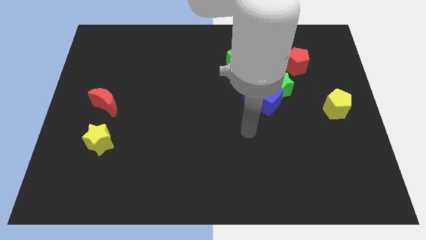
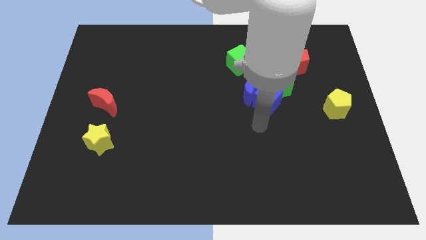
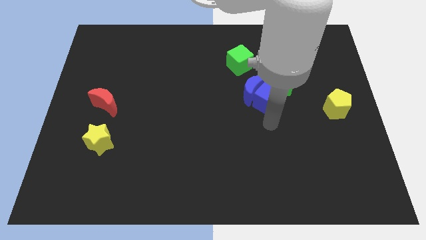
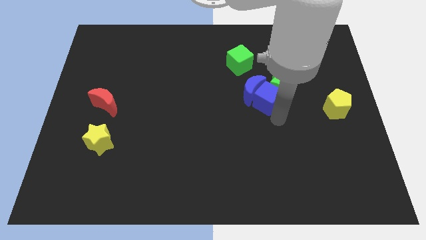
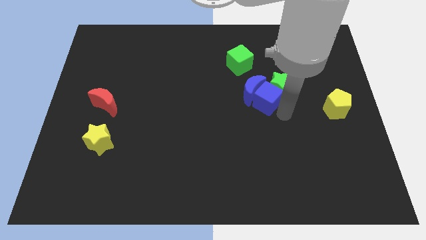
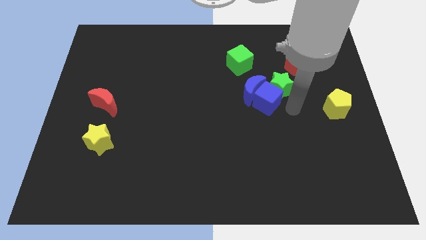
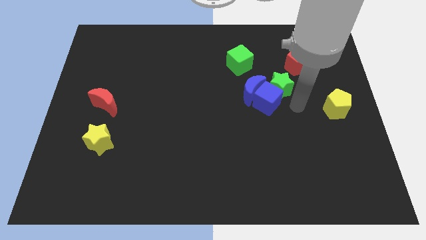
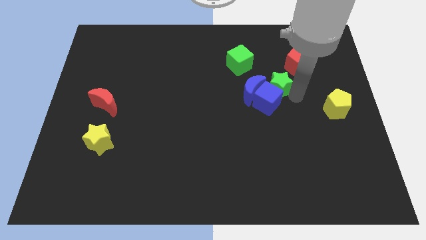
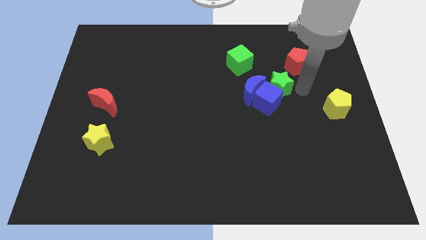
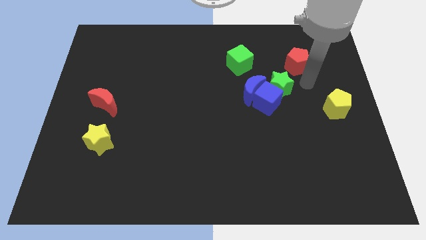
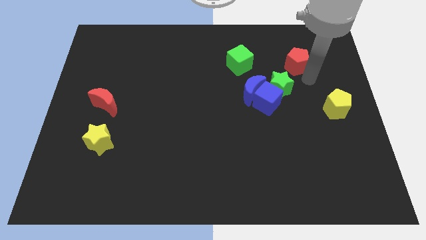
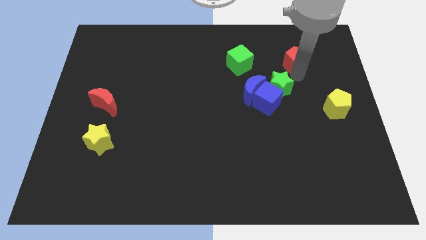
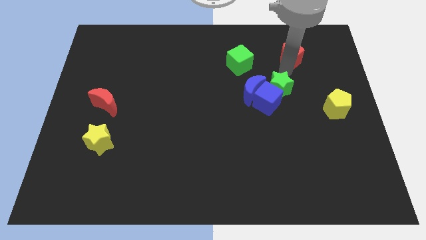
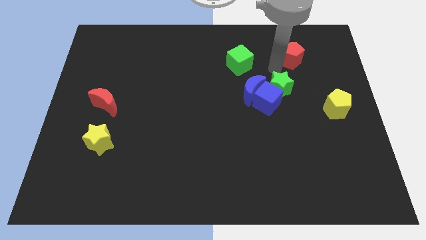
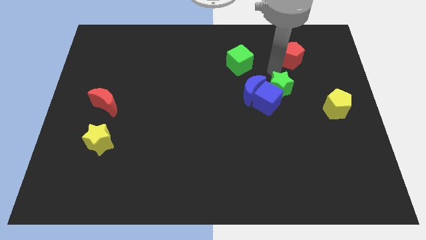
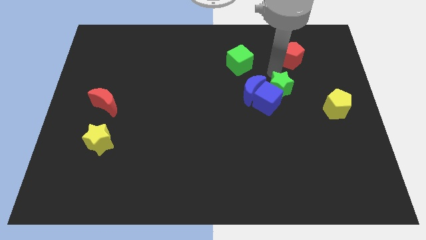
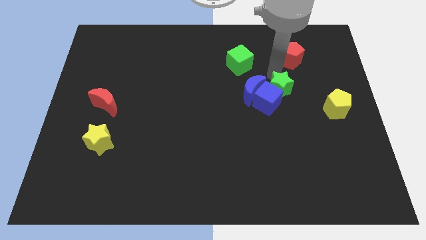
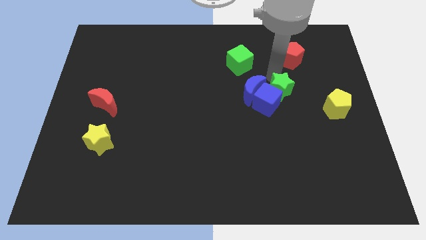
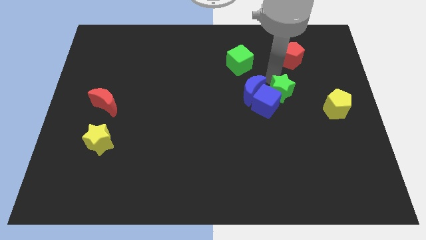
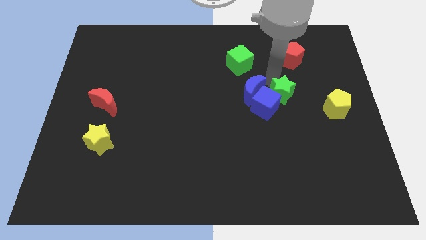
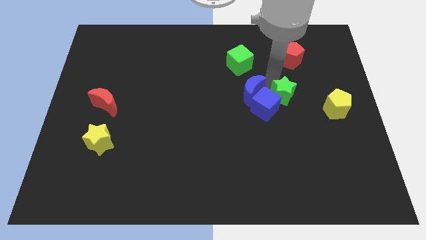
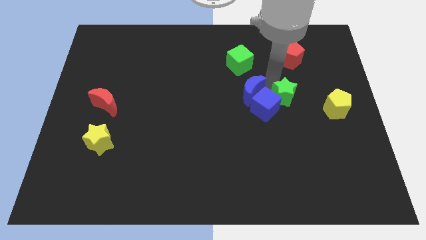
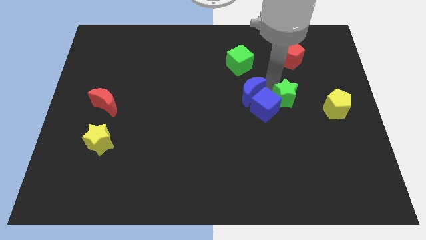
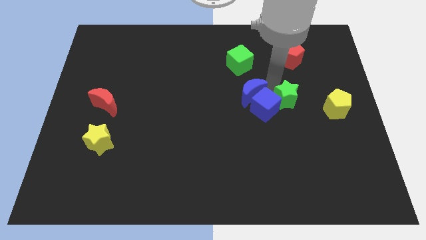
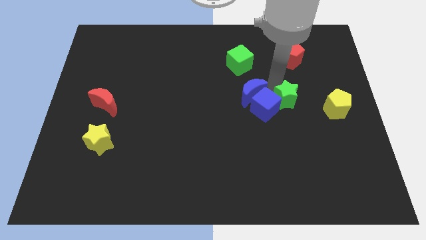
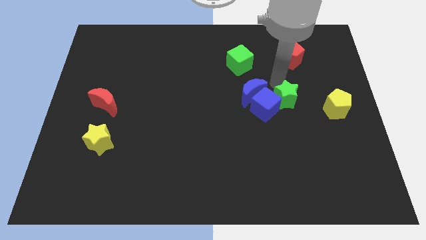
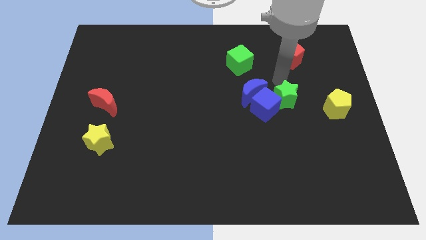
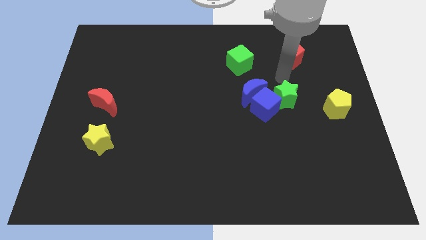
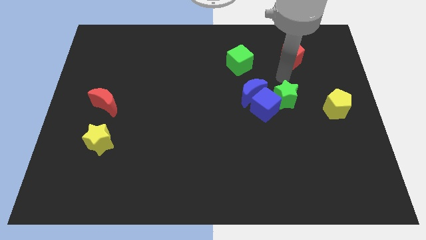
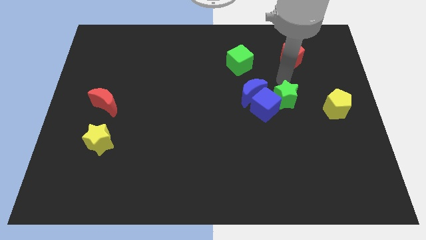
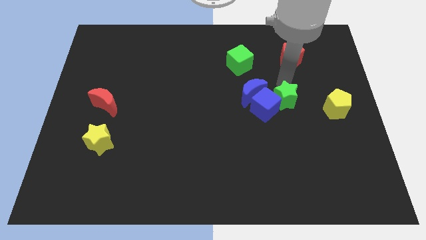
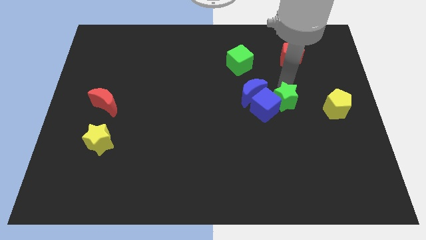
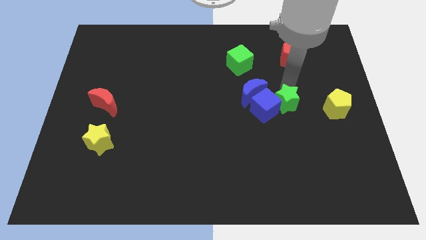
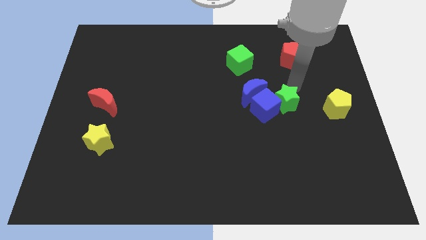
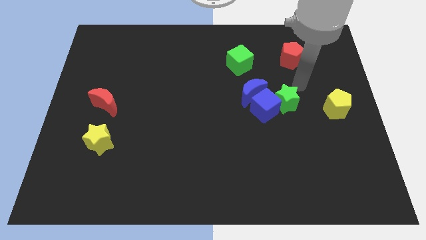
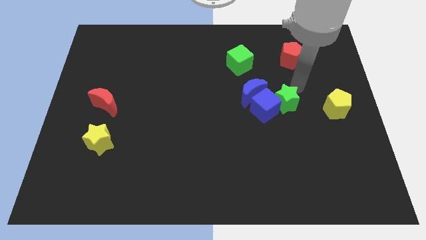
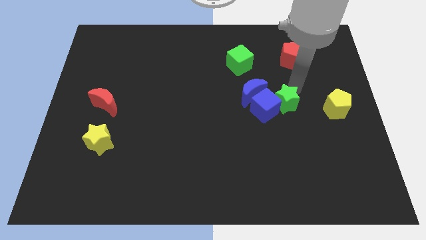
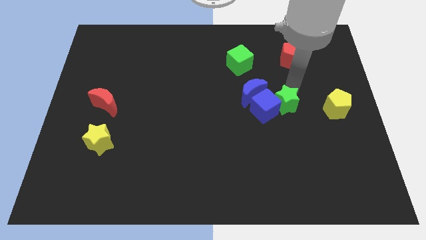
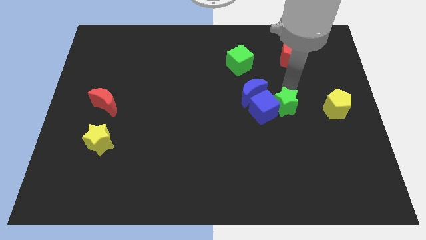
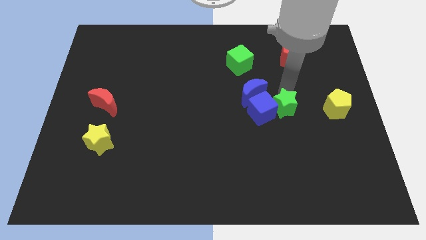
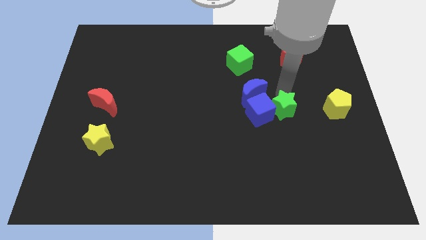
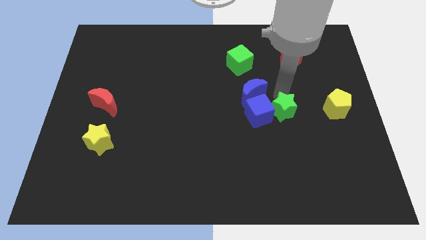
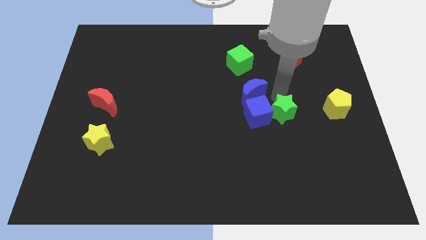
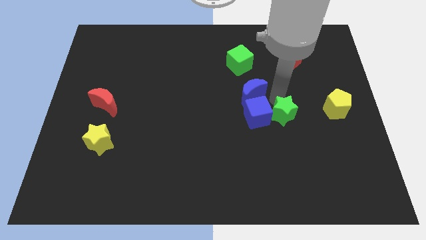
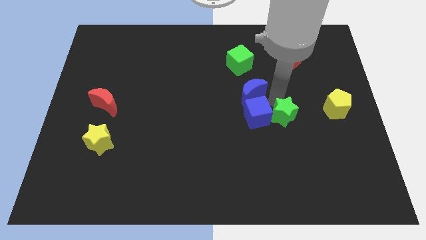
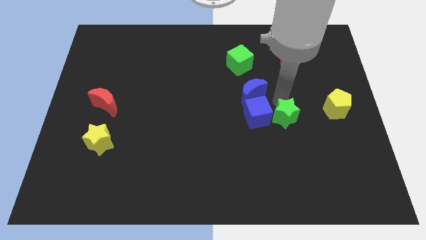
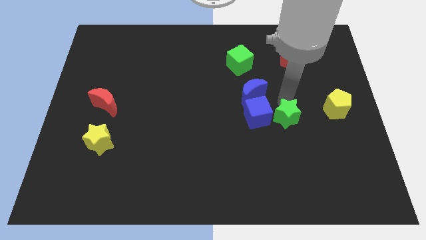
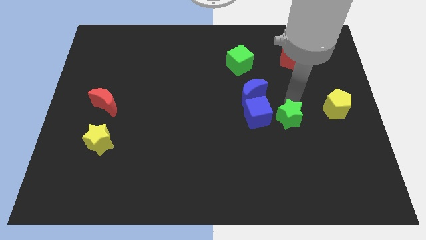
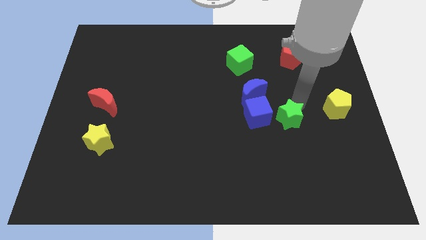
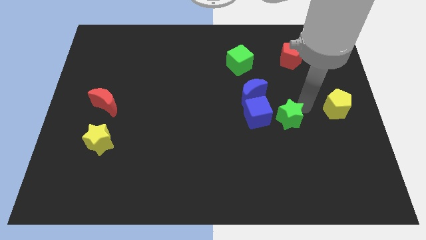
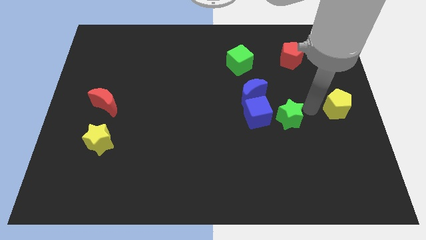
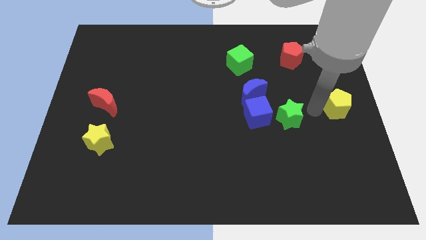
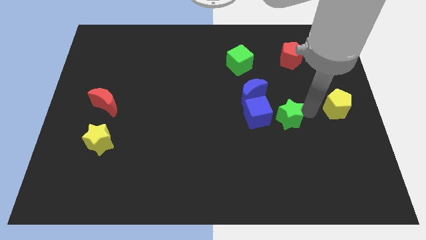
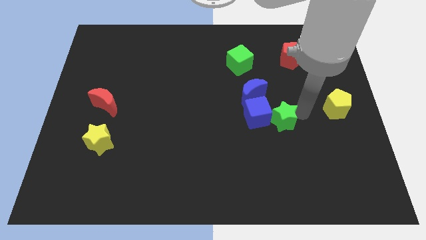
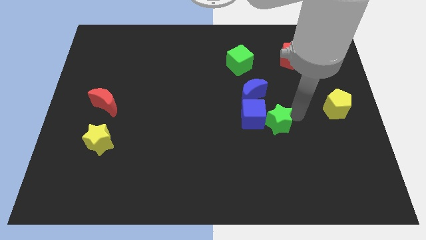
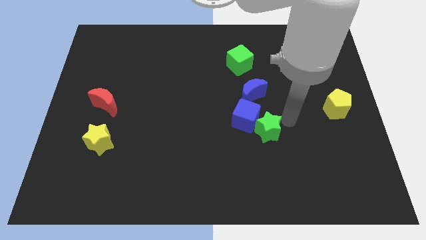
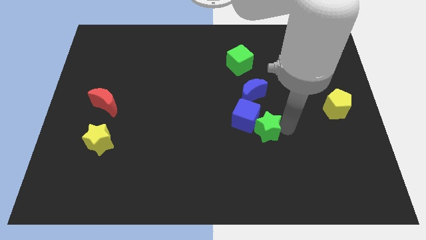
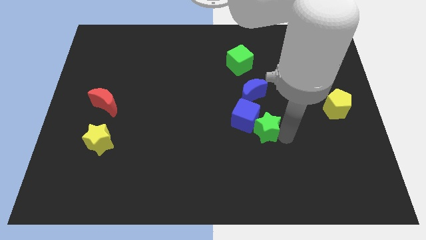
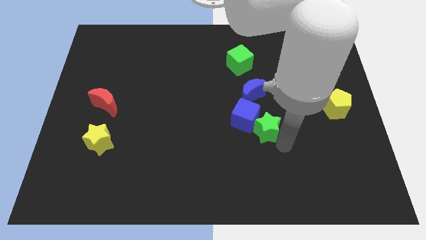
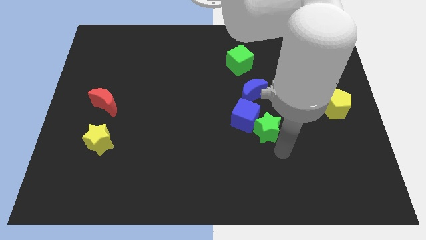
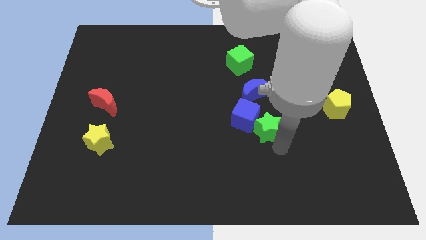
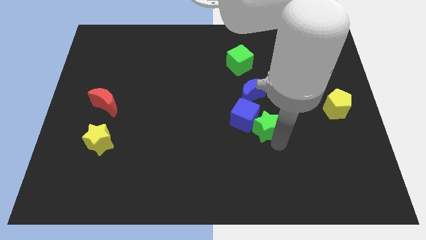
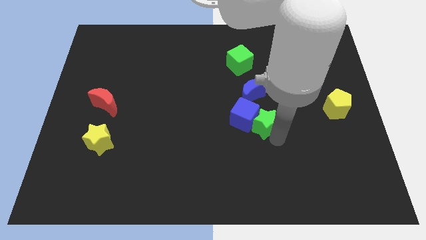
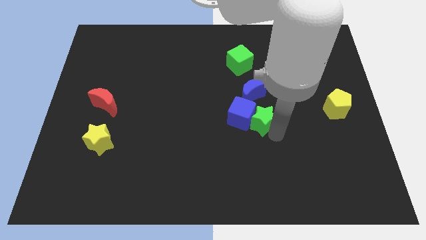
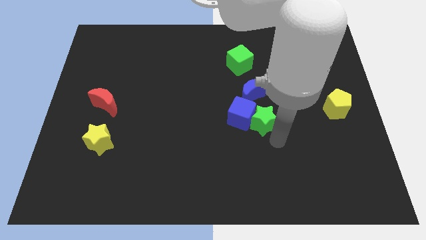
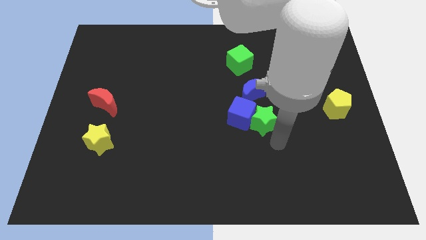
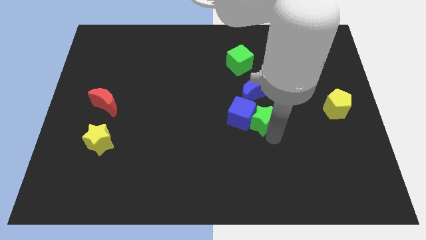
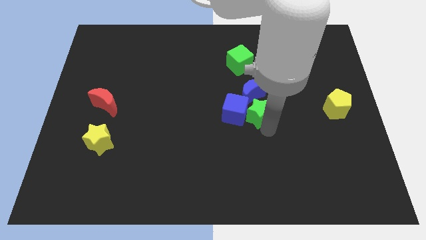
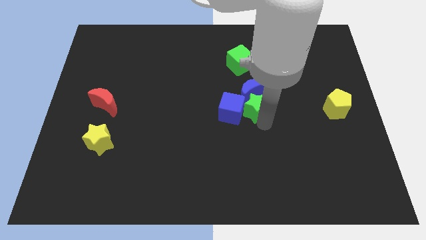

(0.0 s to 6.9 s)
push the green star to the bottom of the green cube
